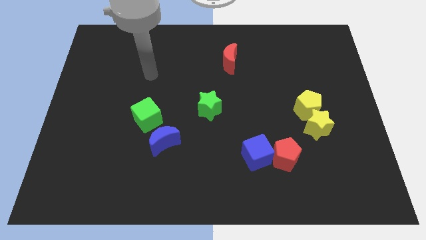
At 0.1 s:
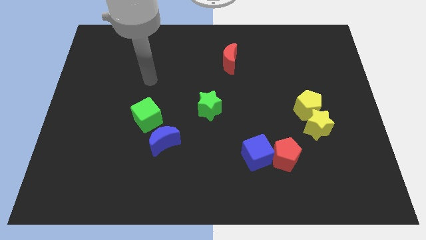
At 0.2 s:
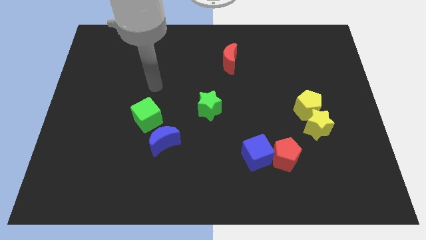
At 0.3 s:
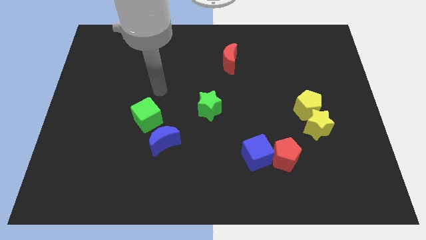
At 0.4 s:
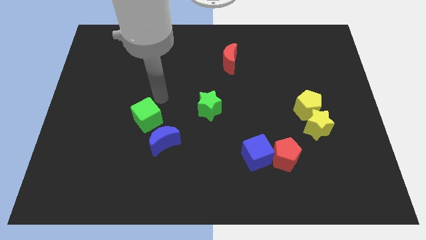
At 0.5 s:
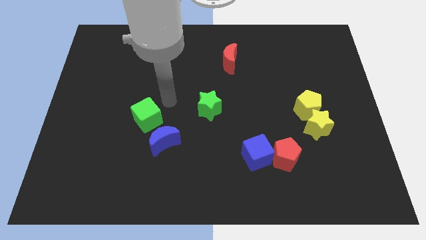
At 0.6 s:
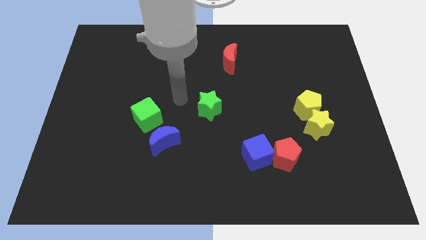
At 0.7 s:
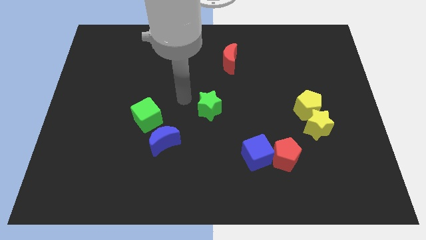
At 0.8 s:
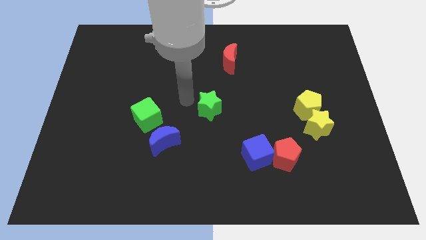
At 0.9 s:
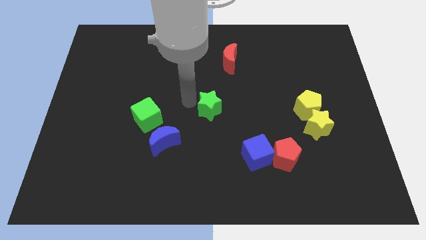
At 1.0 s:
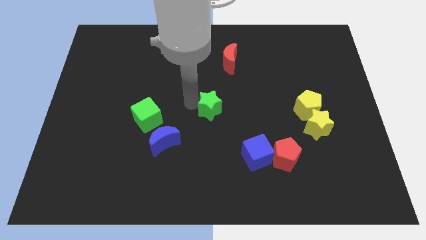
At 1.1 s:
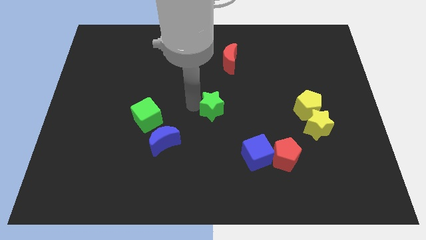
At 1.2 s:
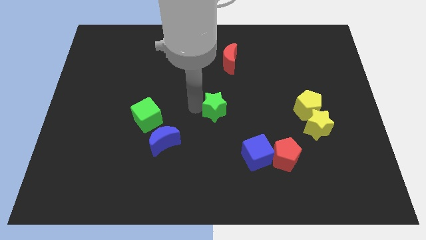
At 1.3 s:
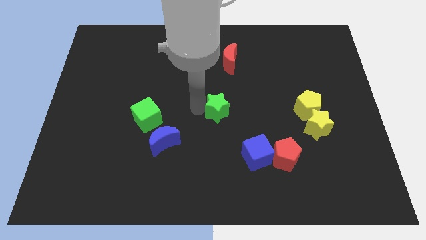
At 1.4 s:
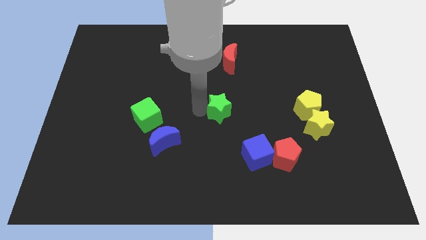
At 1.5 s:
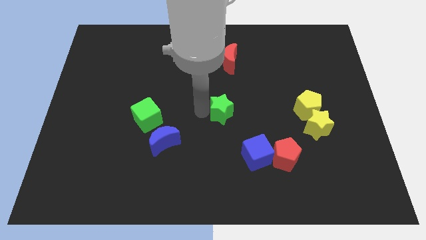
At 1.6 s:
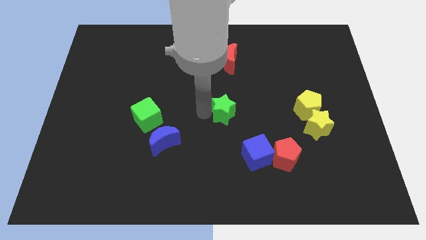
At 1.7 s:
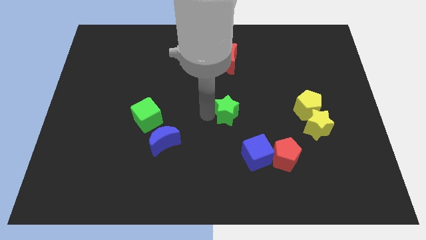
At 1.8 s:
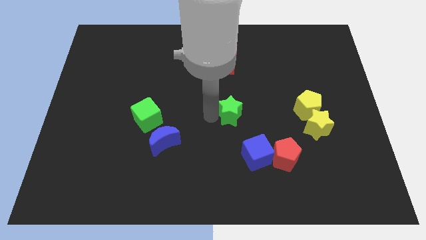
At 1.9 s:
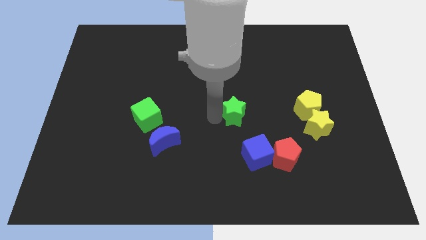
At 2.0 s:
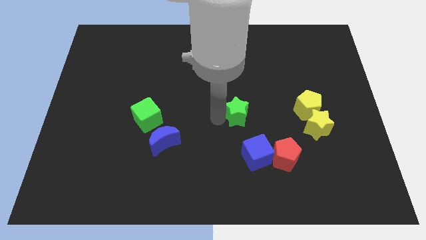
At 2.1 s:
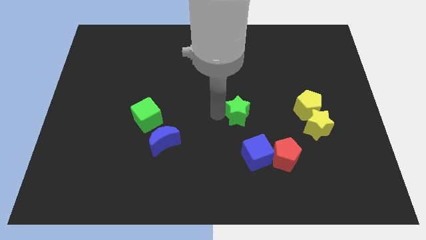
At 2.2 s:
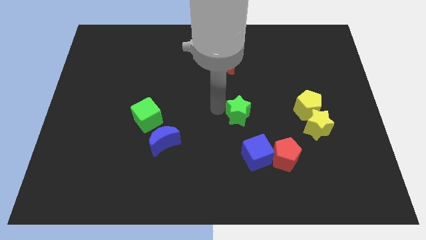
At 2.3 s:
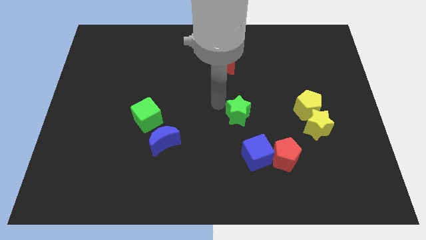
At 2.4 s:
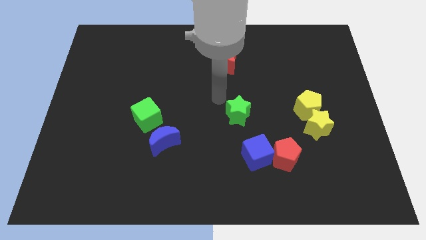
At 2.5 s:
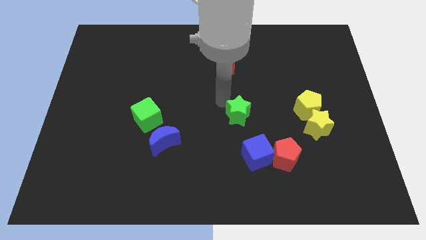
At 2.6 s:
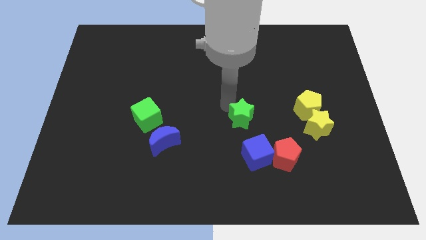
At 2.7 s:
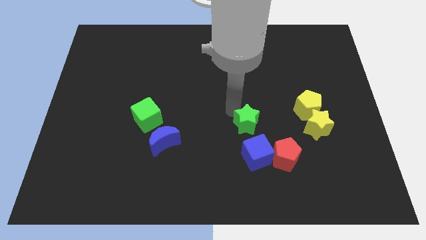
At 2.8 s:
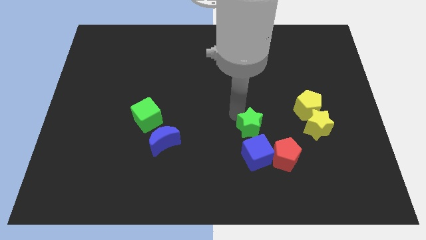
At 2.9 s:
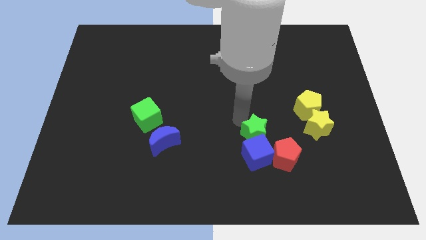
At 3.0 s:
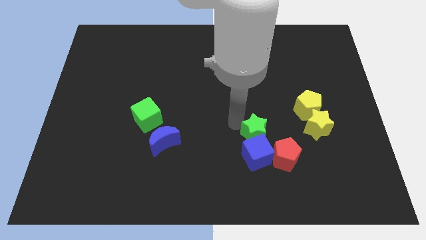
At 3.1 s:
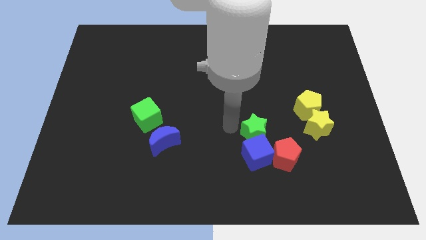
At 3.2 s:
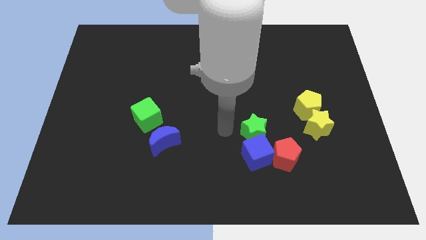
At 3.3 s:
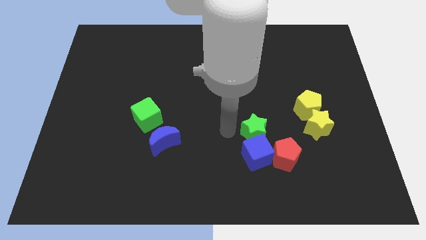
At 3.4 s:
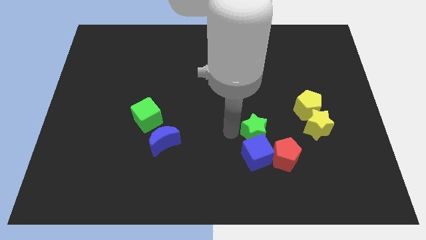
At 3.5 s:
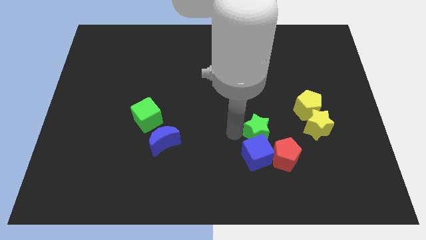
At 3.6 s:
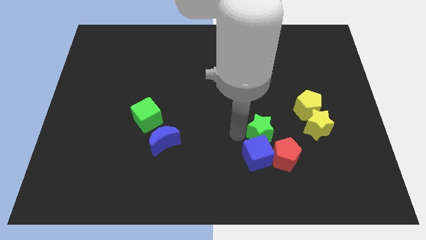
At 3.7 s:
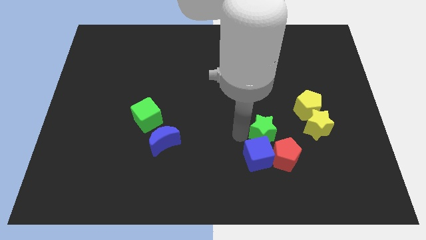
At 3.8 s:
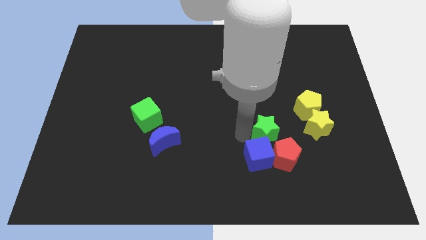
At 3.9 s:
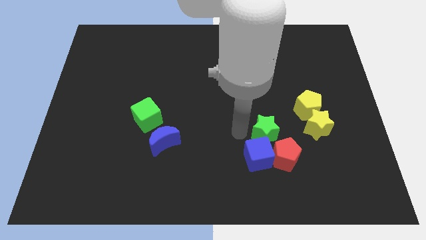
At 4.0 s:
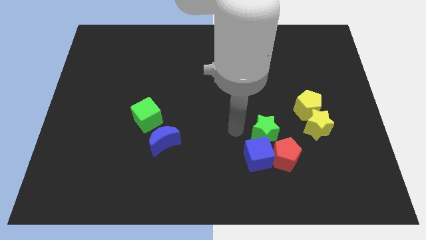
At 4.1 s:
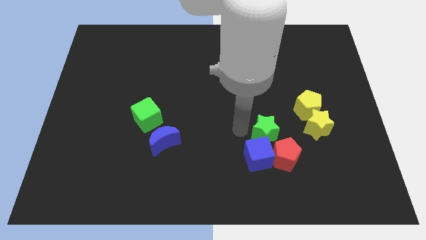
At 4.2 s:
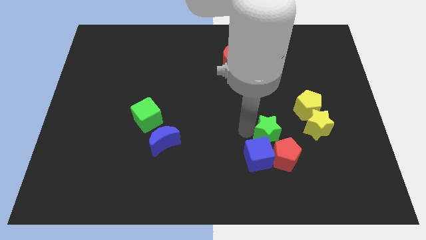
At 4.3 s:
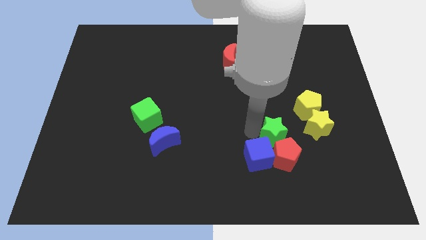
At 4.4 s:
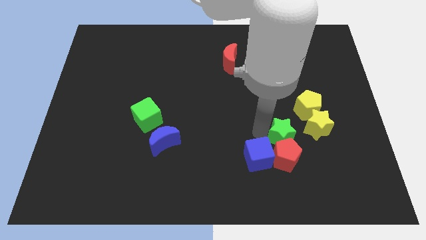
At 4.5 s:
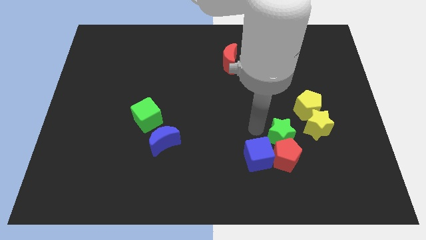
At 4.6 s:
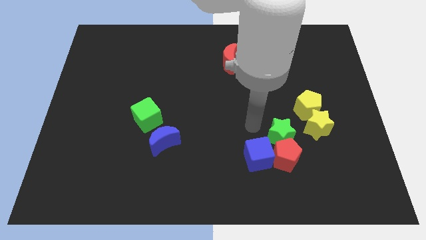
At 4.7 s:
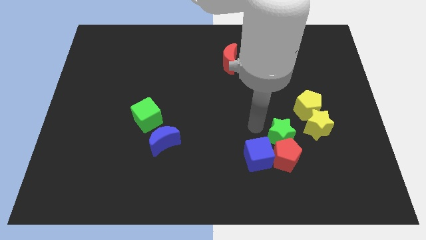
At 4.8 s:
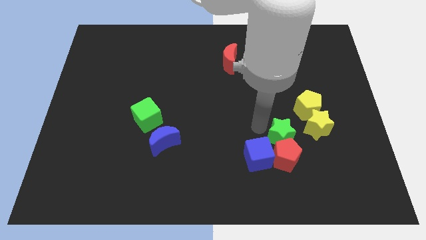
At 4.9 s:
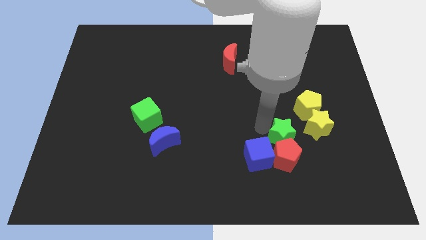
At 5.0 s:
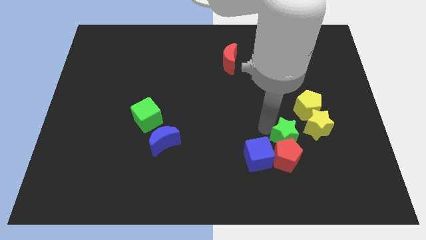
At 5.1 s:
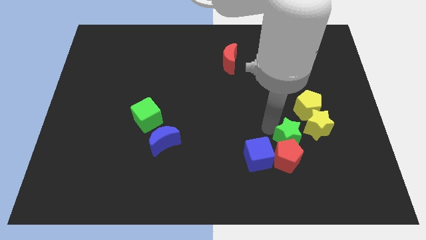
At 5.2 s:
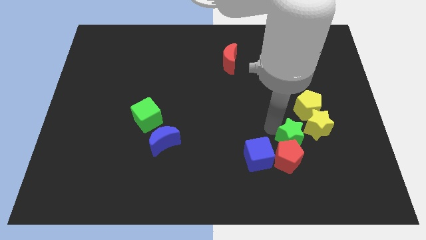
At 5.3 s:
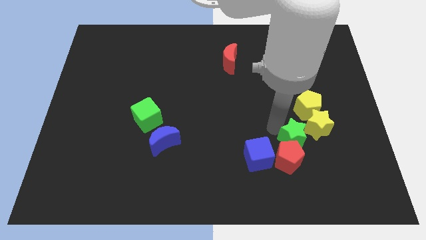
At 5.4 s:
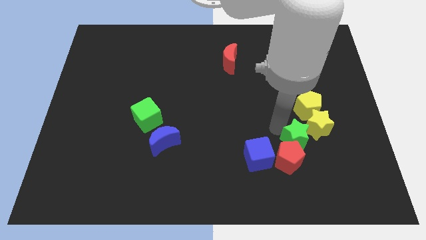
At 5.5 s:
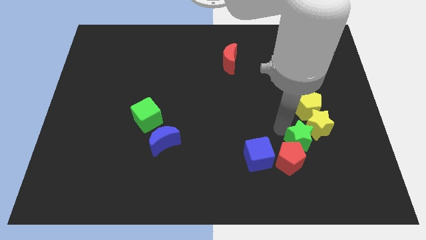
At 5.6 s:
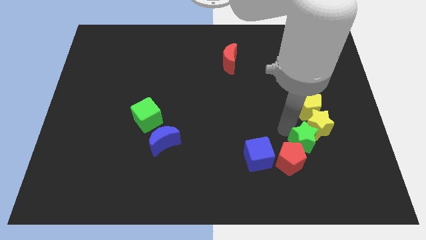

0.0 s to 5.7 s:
move the green star to the right of the red pentagon

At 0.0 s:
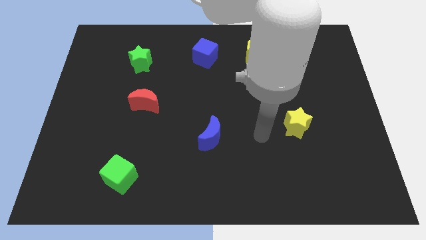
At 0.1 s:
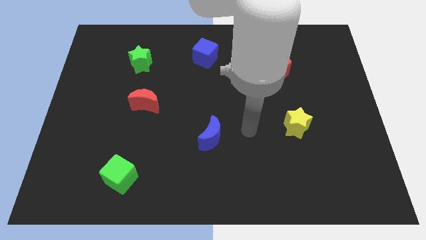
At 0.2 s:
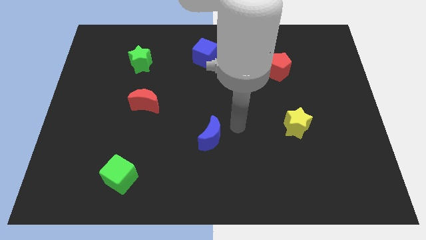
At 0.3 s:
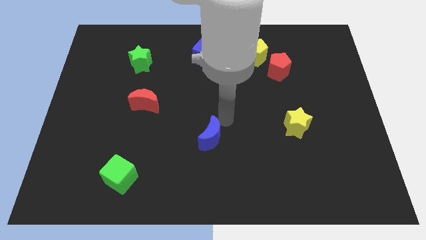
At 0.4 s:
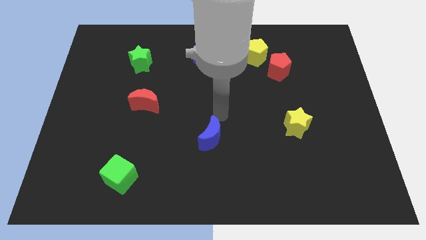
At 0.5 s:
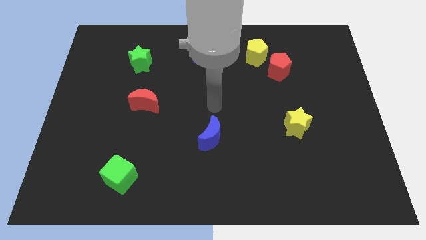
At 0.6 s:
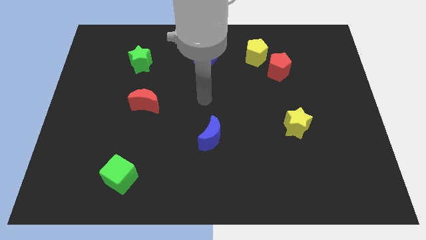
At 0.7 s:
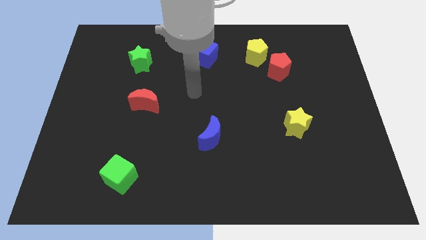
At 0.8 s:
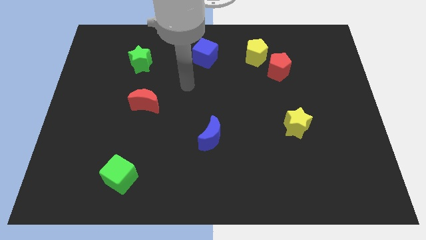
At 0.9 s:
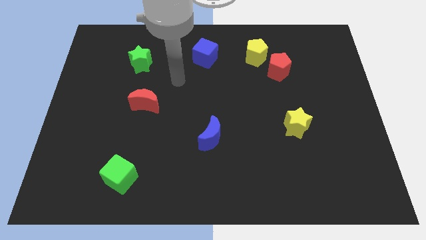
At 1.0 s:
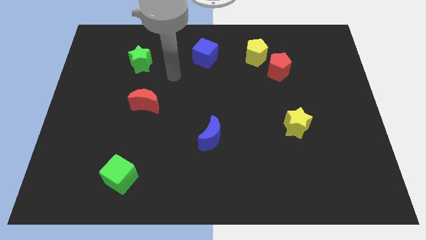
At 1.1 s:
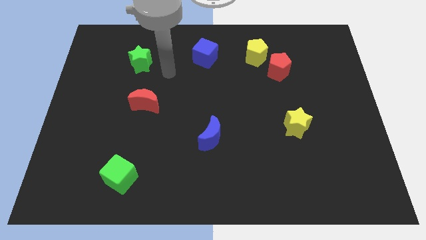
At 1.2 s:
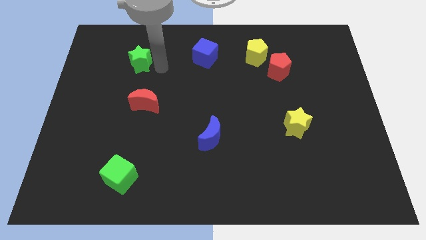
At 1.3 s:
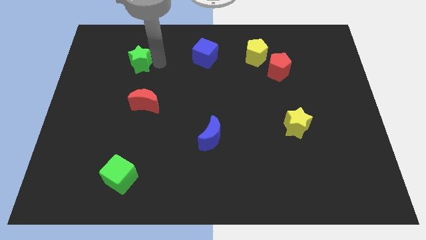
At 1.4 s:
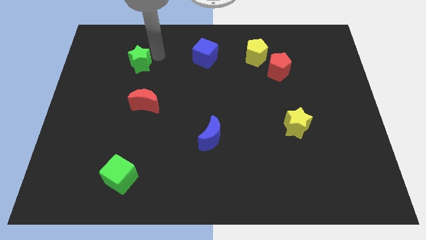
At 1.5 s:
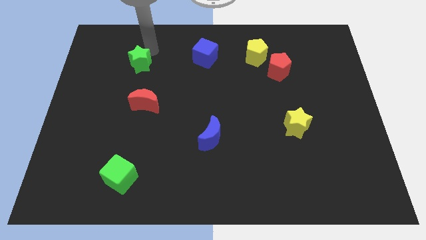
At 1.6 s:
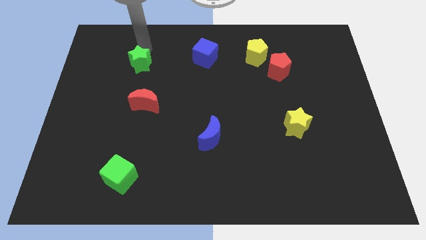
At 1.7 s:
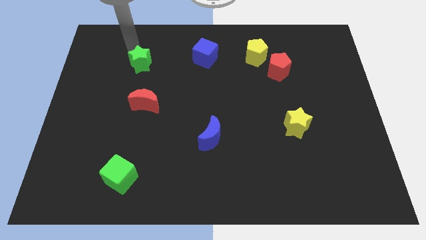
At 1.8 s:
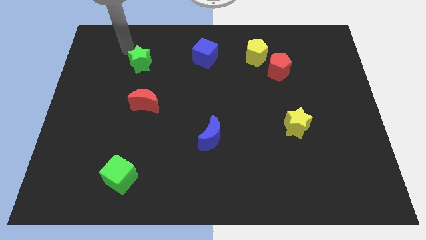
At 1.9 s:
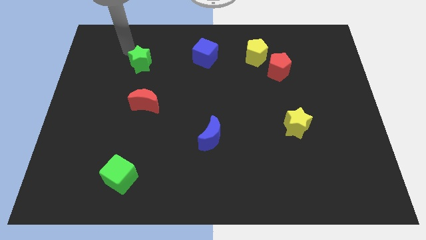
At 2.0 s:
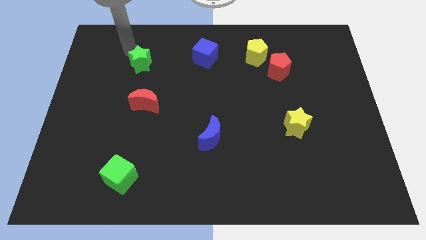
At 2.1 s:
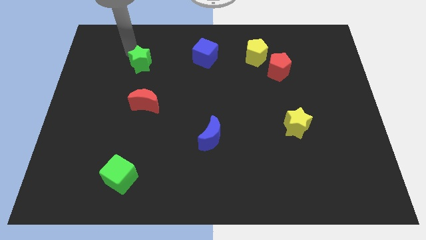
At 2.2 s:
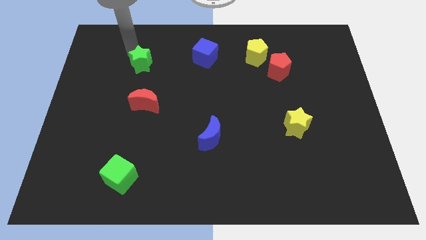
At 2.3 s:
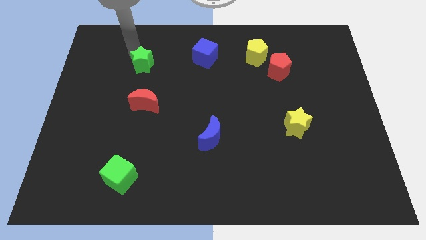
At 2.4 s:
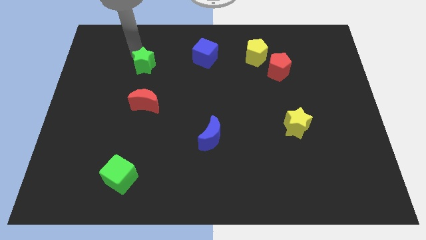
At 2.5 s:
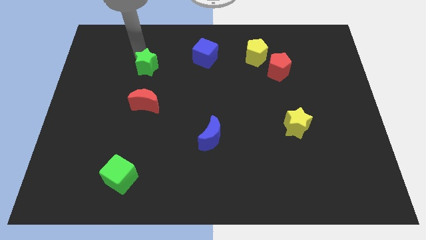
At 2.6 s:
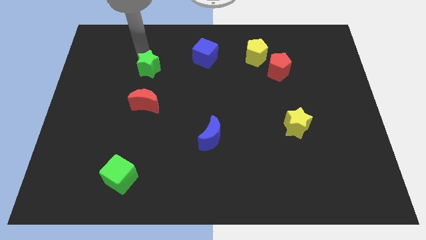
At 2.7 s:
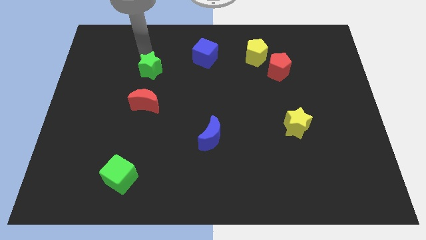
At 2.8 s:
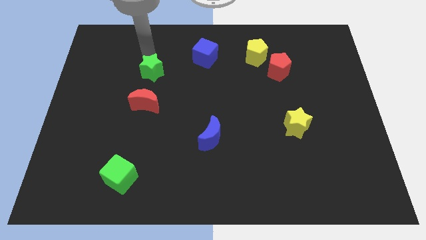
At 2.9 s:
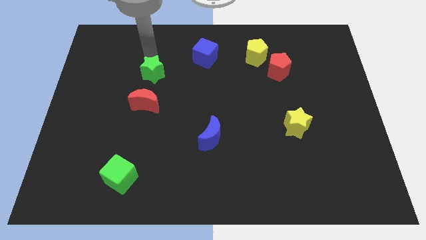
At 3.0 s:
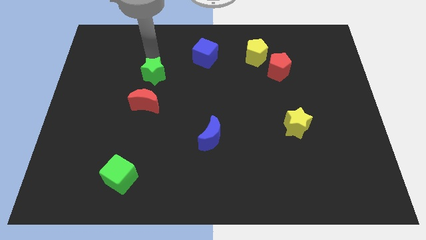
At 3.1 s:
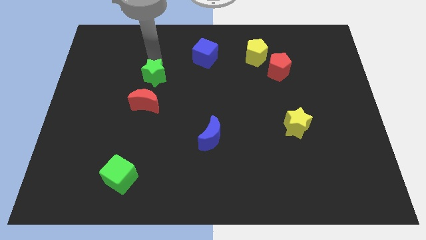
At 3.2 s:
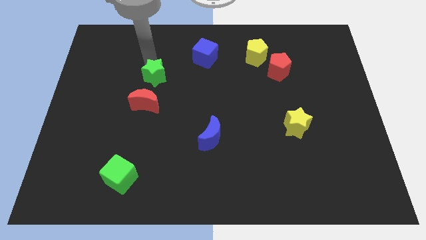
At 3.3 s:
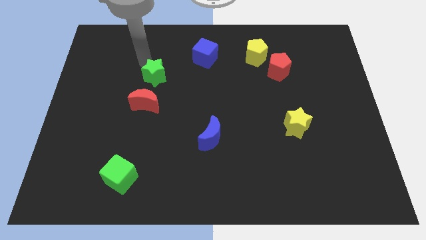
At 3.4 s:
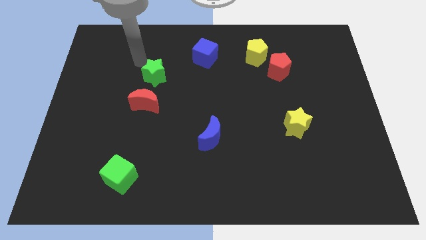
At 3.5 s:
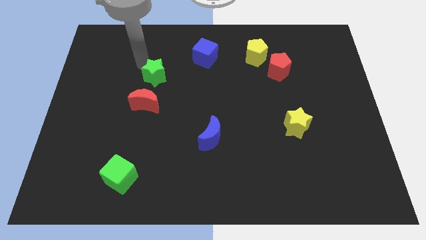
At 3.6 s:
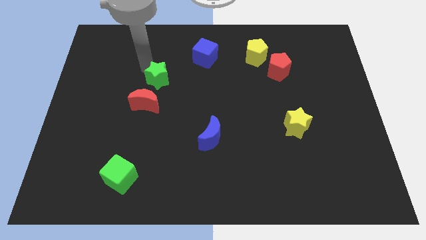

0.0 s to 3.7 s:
push the green star to the top right side of the red moon
